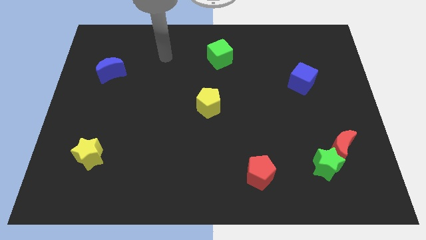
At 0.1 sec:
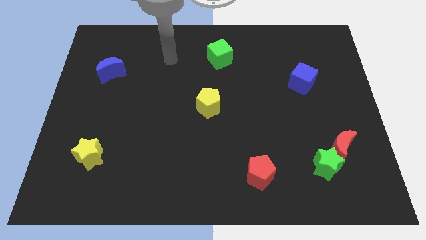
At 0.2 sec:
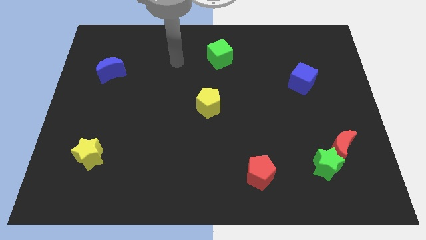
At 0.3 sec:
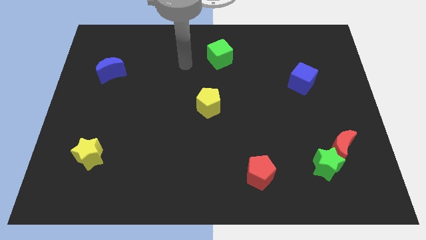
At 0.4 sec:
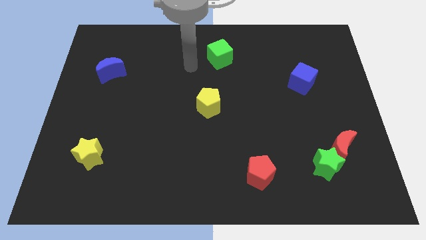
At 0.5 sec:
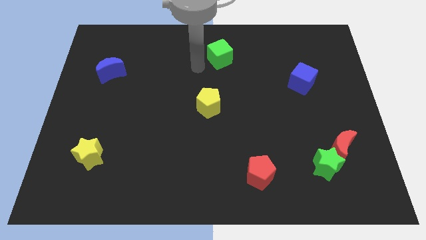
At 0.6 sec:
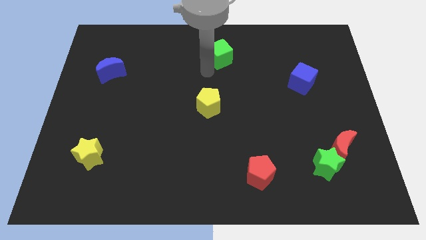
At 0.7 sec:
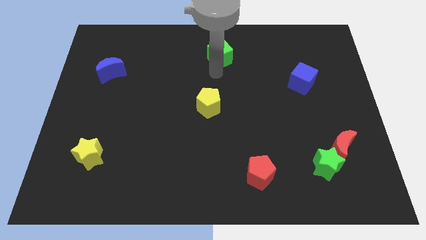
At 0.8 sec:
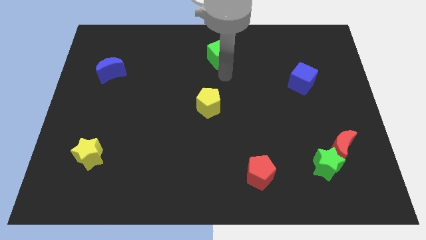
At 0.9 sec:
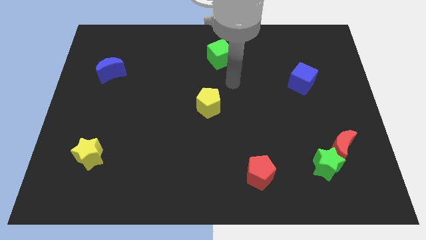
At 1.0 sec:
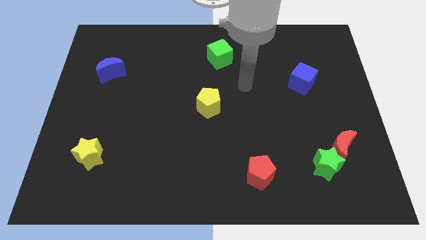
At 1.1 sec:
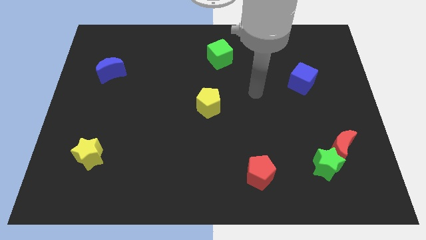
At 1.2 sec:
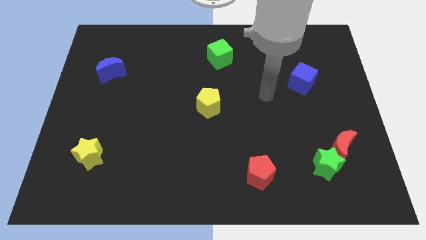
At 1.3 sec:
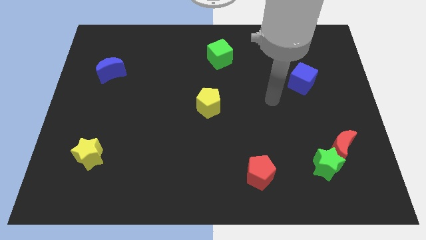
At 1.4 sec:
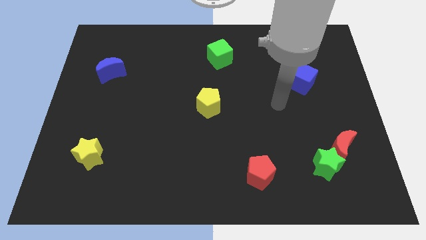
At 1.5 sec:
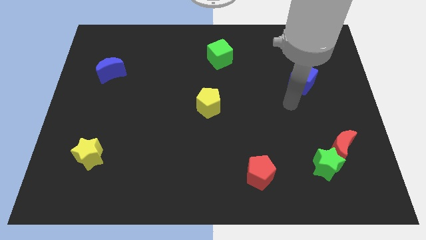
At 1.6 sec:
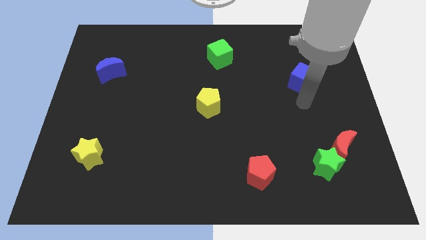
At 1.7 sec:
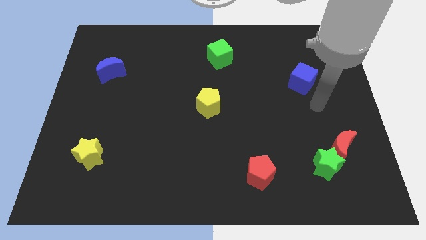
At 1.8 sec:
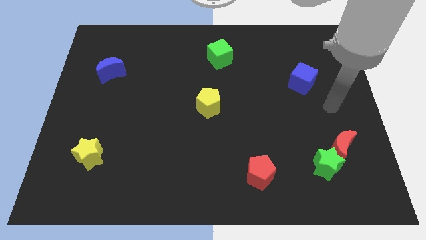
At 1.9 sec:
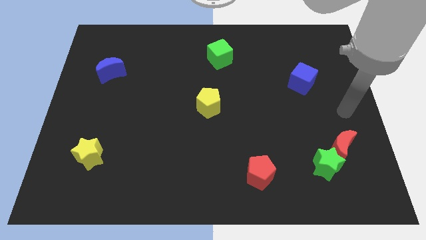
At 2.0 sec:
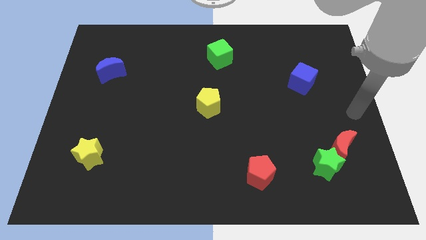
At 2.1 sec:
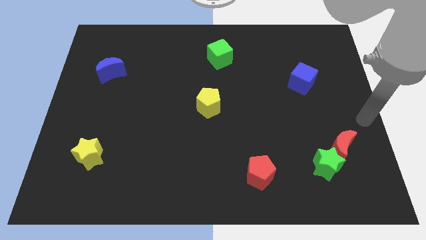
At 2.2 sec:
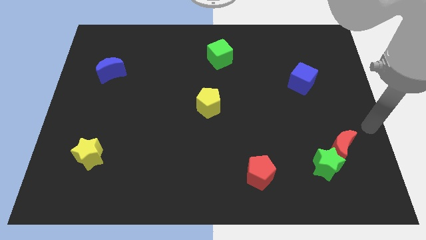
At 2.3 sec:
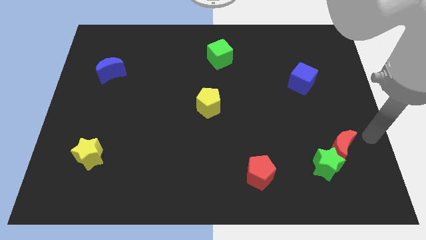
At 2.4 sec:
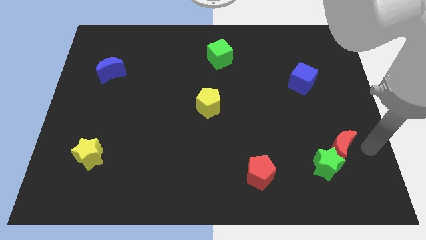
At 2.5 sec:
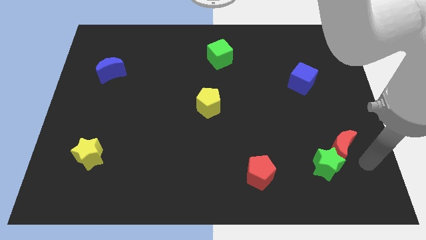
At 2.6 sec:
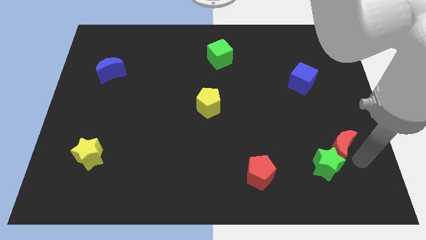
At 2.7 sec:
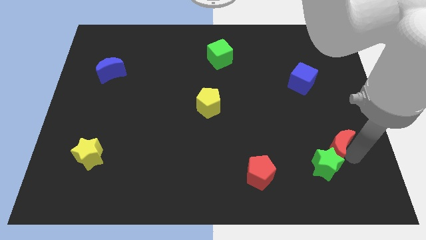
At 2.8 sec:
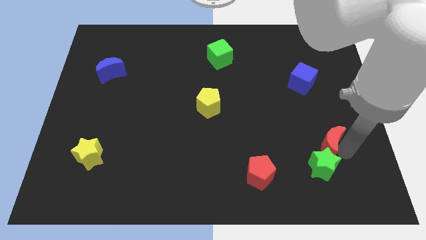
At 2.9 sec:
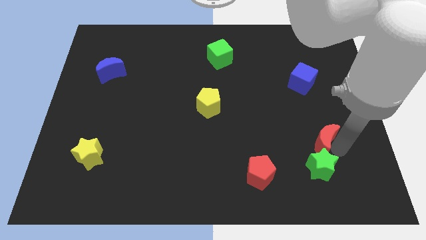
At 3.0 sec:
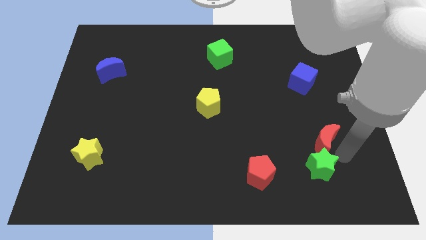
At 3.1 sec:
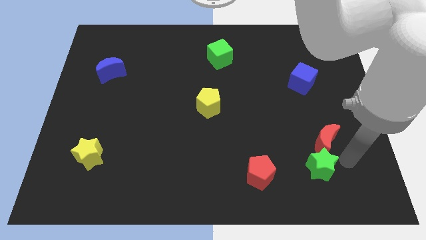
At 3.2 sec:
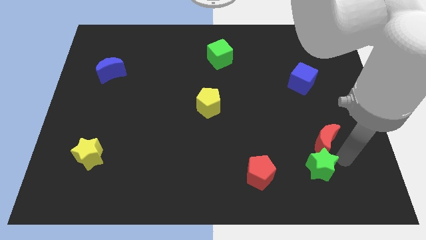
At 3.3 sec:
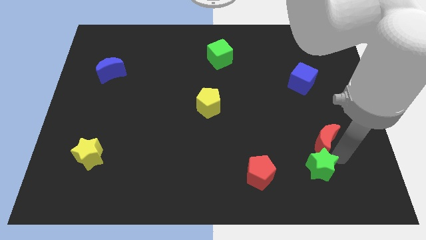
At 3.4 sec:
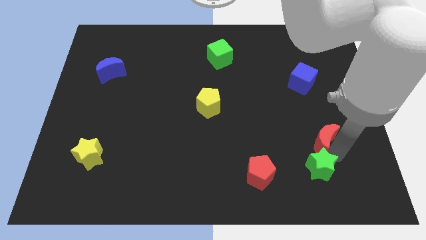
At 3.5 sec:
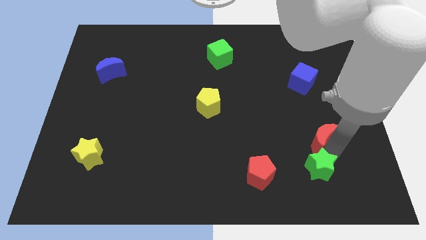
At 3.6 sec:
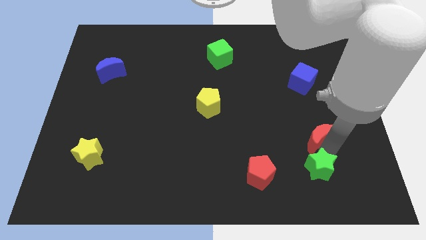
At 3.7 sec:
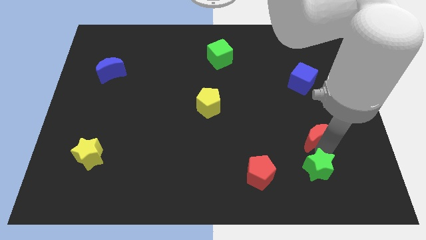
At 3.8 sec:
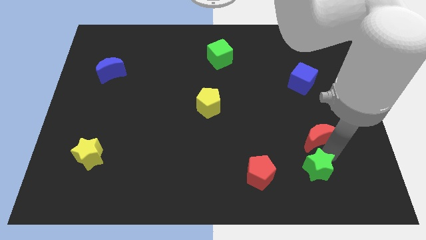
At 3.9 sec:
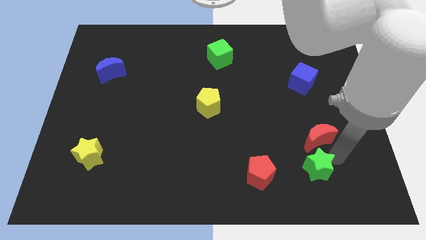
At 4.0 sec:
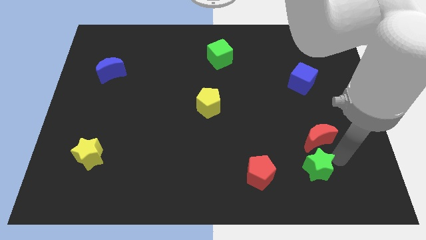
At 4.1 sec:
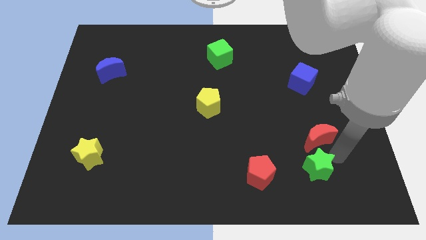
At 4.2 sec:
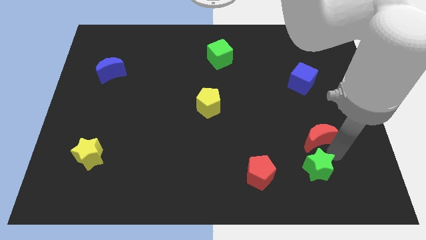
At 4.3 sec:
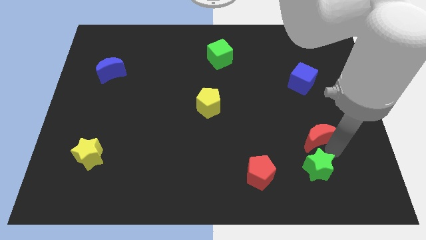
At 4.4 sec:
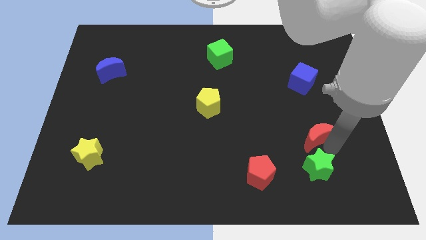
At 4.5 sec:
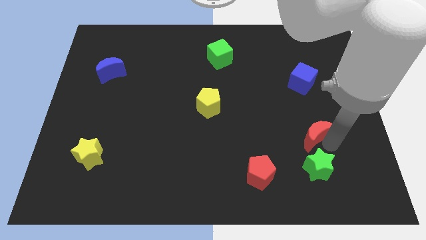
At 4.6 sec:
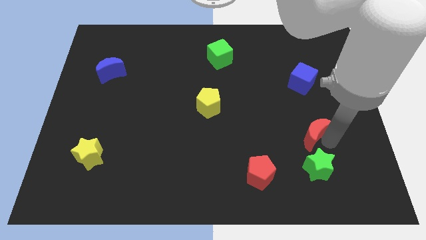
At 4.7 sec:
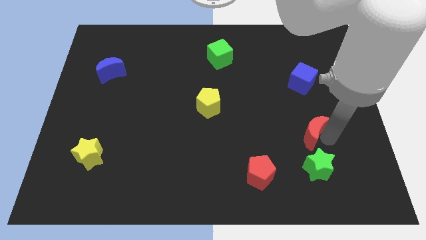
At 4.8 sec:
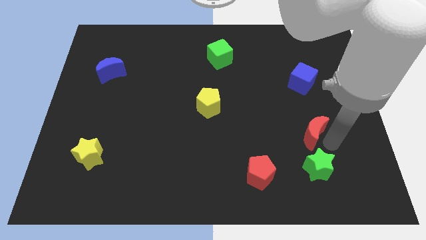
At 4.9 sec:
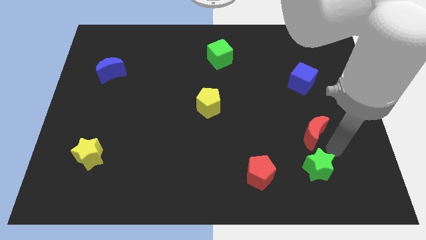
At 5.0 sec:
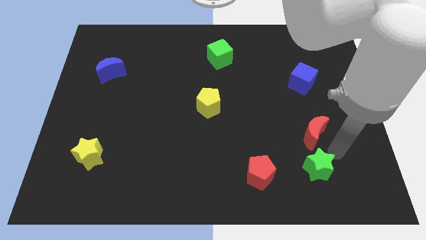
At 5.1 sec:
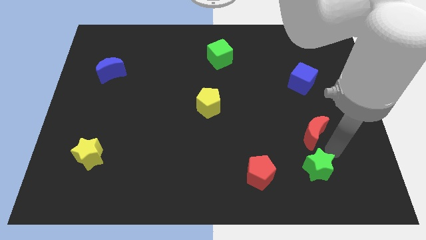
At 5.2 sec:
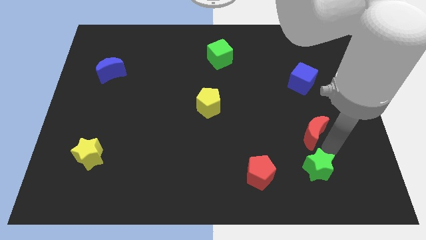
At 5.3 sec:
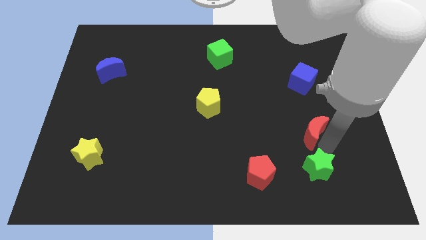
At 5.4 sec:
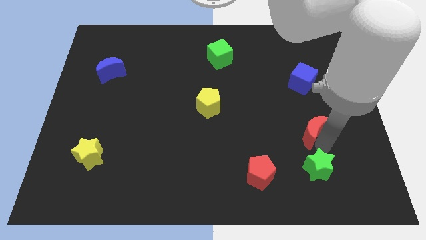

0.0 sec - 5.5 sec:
slightly push the red moon up and to the left

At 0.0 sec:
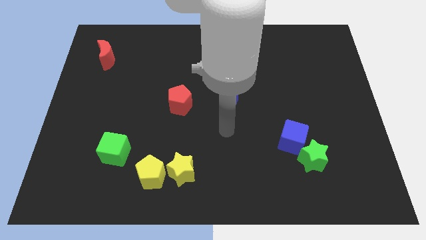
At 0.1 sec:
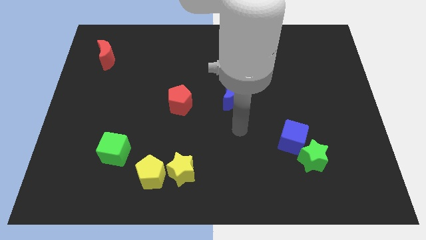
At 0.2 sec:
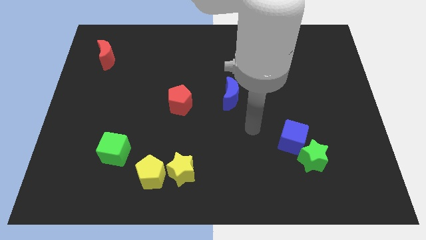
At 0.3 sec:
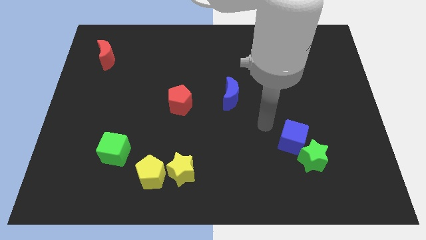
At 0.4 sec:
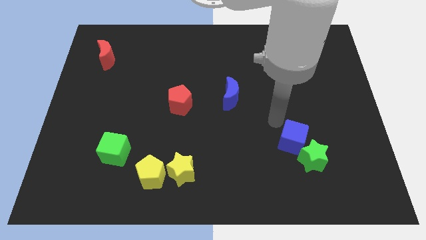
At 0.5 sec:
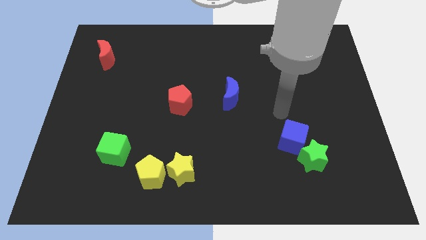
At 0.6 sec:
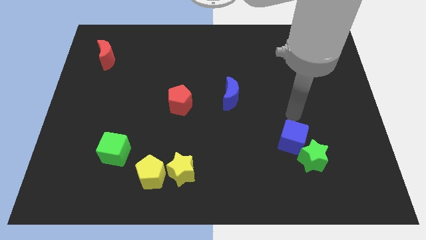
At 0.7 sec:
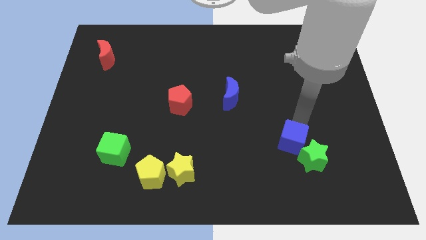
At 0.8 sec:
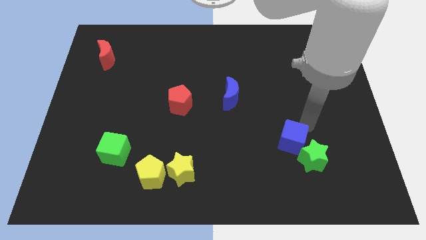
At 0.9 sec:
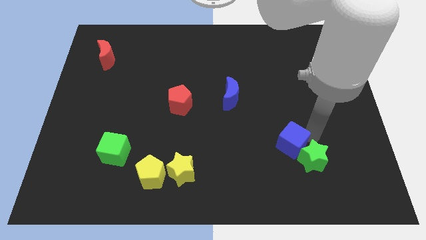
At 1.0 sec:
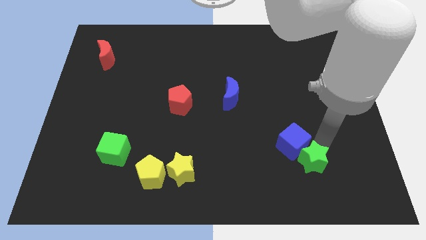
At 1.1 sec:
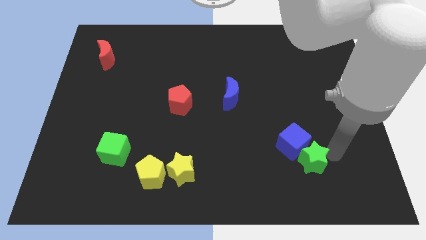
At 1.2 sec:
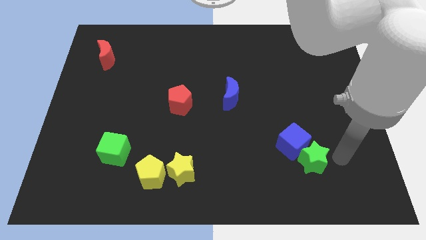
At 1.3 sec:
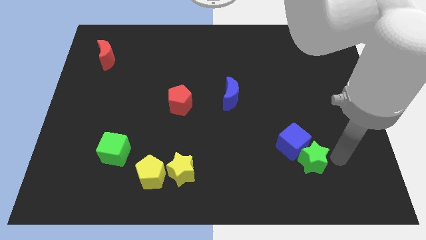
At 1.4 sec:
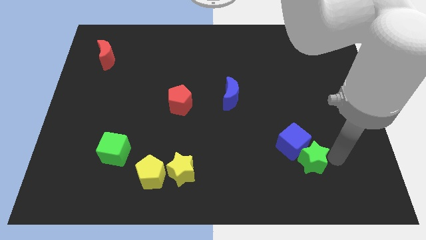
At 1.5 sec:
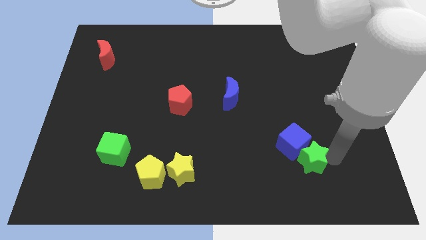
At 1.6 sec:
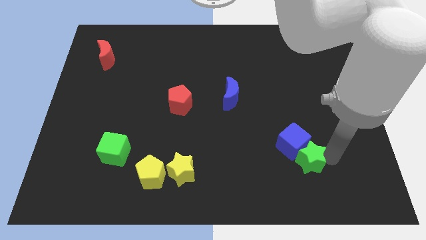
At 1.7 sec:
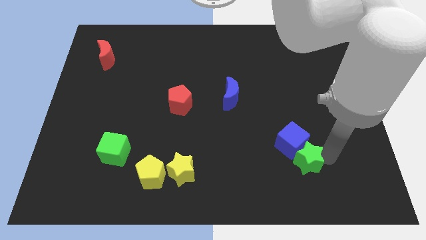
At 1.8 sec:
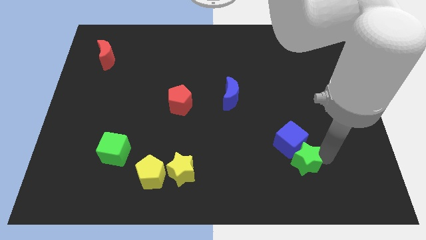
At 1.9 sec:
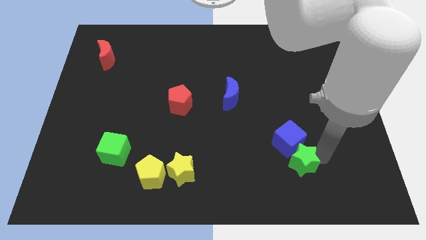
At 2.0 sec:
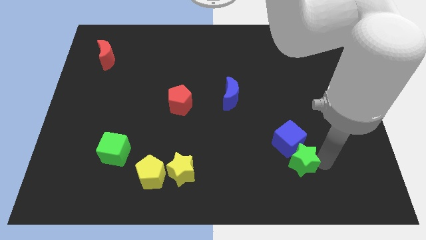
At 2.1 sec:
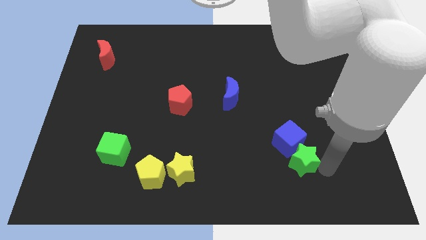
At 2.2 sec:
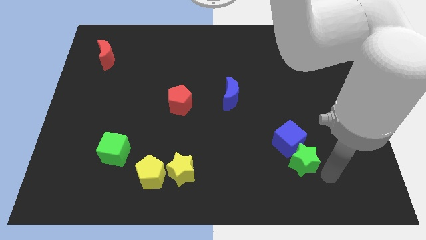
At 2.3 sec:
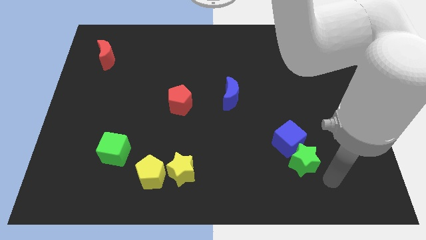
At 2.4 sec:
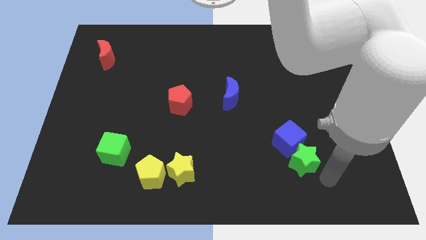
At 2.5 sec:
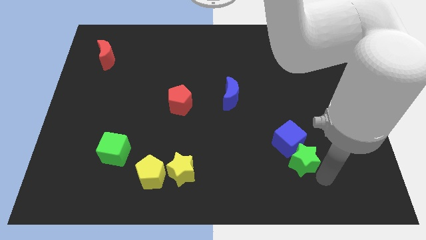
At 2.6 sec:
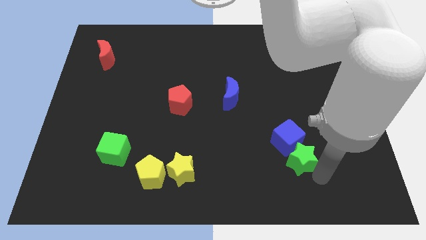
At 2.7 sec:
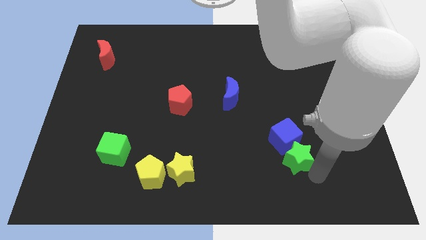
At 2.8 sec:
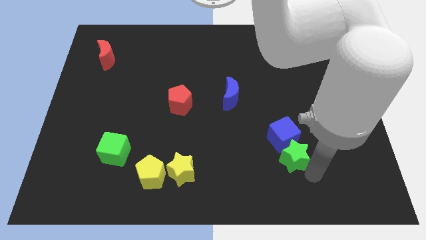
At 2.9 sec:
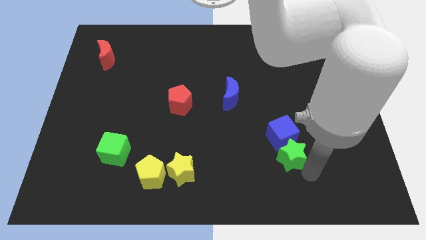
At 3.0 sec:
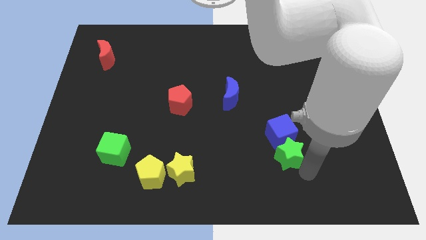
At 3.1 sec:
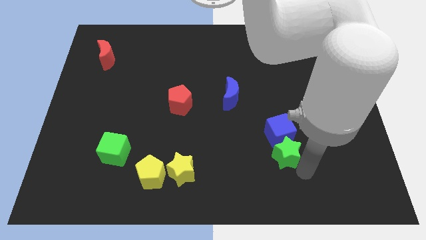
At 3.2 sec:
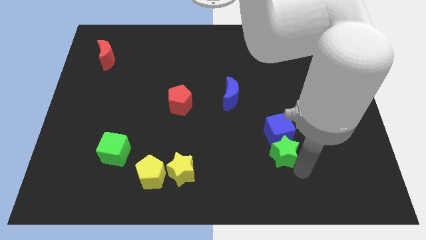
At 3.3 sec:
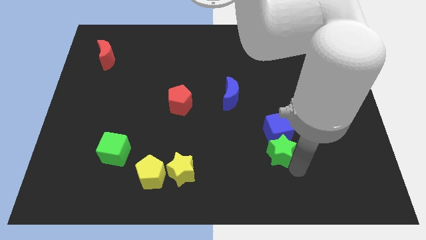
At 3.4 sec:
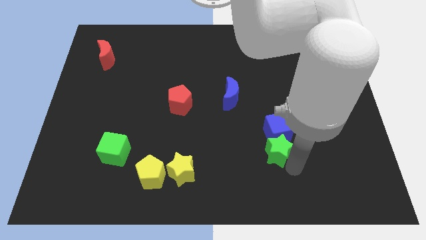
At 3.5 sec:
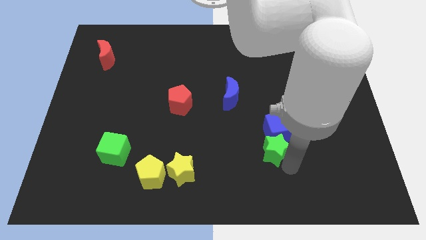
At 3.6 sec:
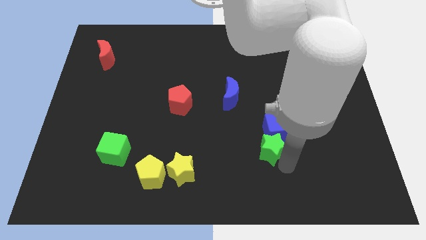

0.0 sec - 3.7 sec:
move the green star up and to the left a little bit
